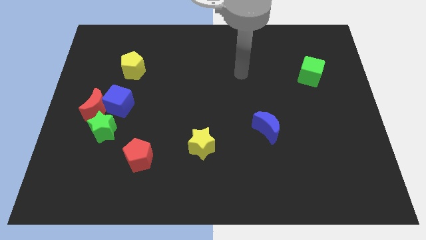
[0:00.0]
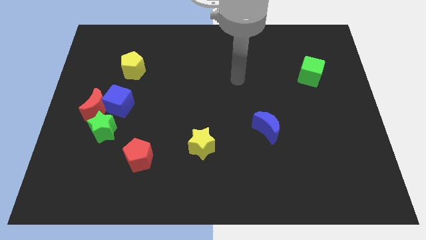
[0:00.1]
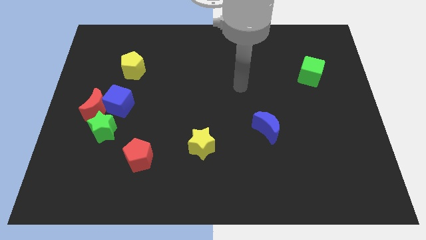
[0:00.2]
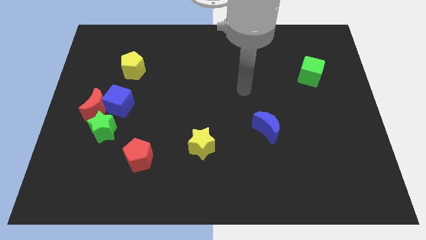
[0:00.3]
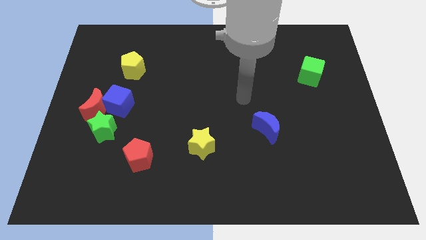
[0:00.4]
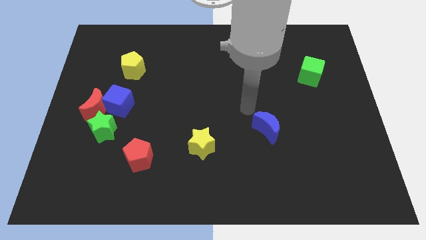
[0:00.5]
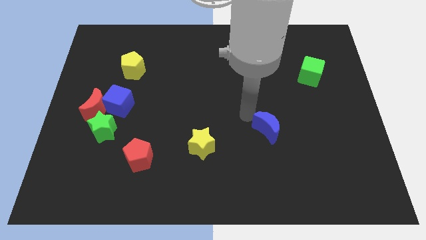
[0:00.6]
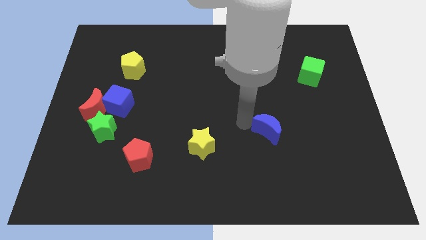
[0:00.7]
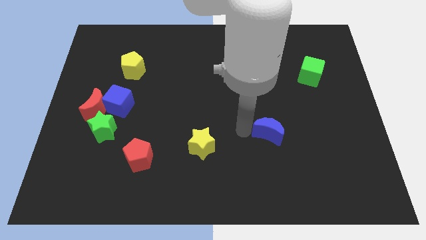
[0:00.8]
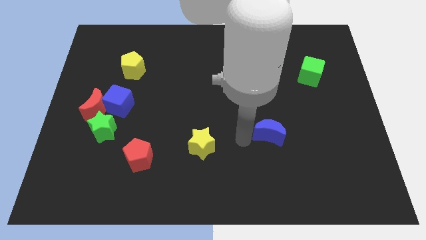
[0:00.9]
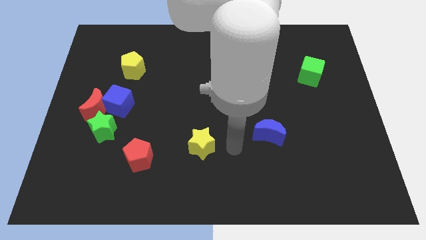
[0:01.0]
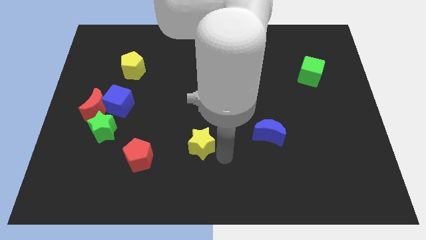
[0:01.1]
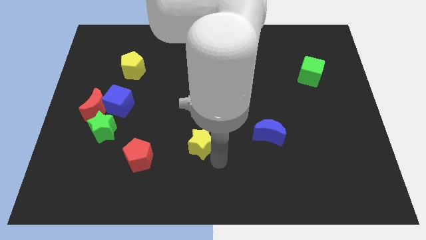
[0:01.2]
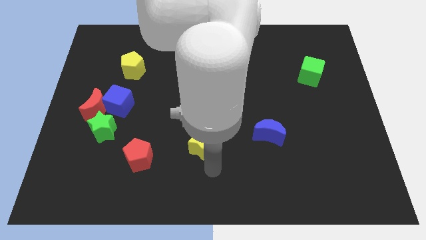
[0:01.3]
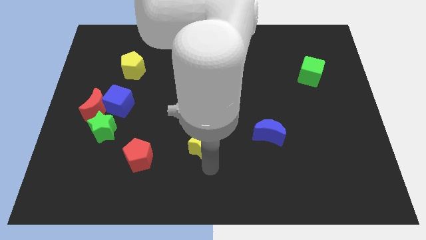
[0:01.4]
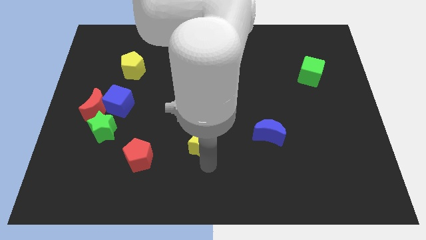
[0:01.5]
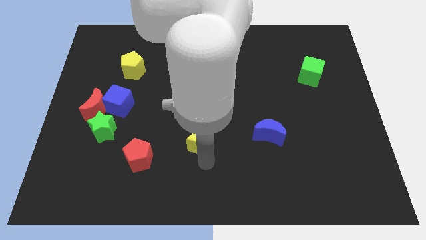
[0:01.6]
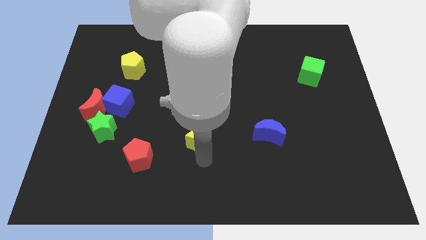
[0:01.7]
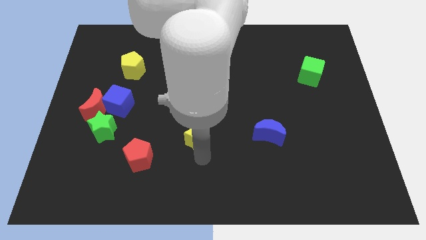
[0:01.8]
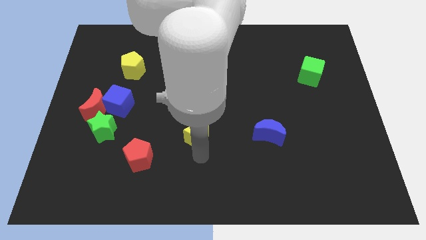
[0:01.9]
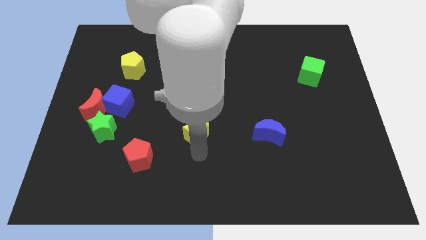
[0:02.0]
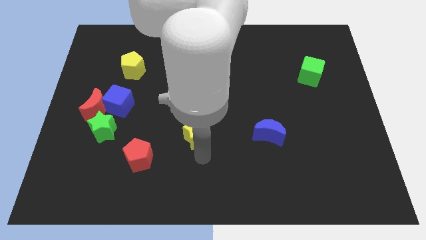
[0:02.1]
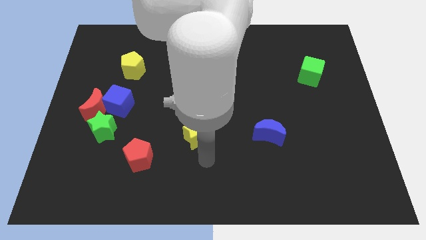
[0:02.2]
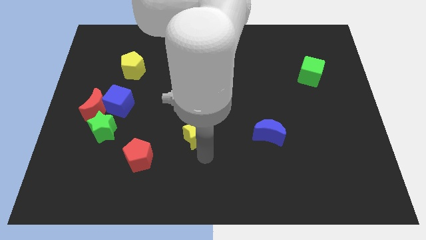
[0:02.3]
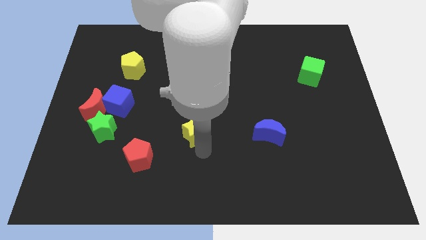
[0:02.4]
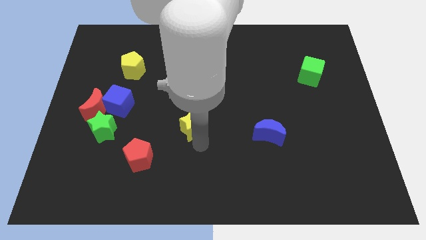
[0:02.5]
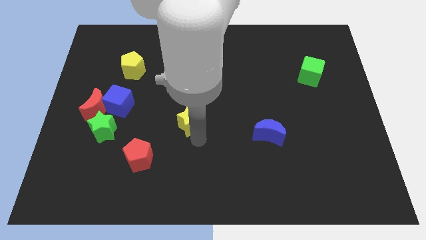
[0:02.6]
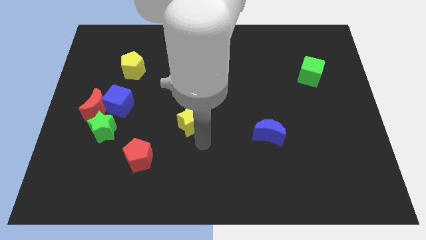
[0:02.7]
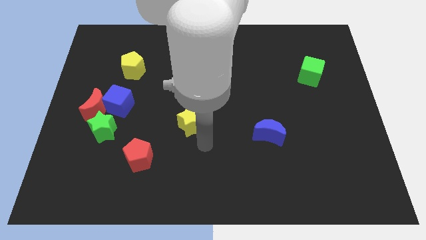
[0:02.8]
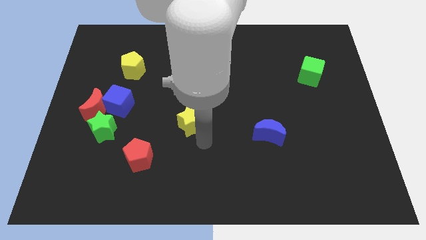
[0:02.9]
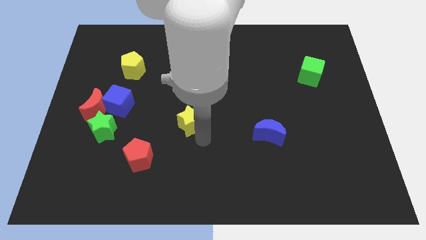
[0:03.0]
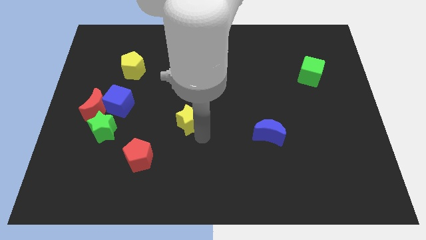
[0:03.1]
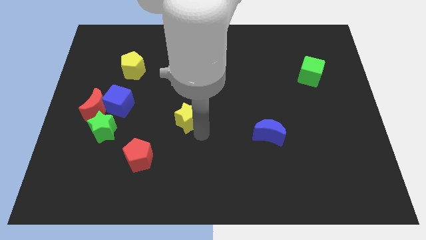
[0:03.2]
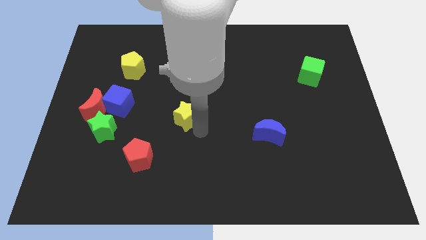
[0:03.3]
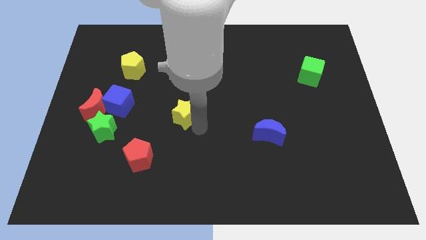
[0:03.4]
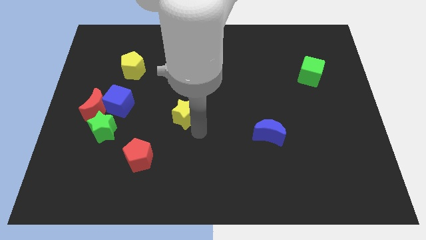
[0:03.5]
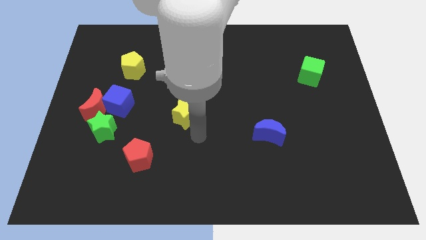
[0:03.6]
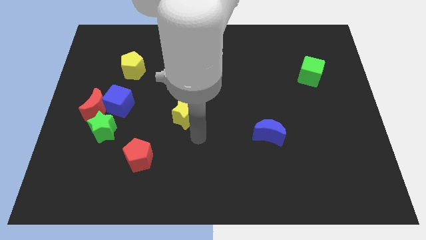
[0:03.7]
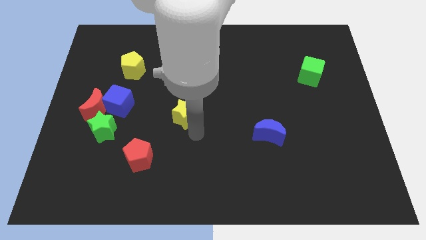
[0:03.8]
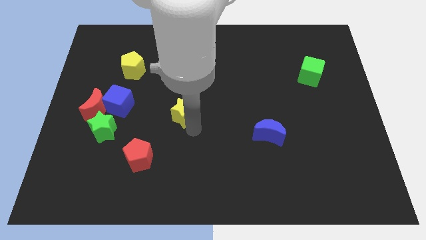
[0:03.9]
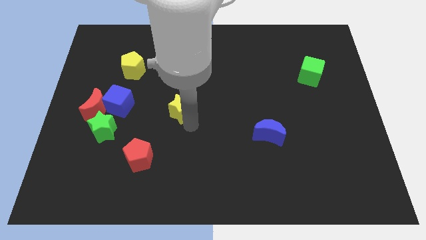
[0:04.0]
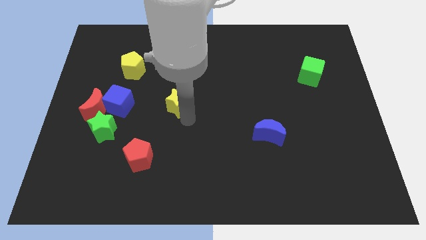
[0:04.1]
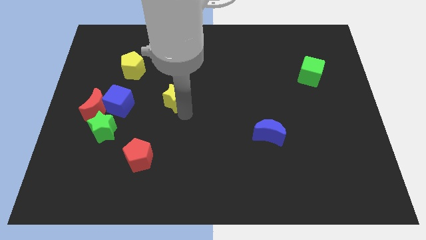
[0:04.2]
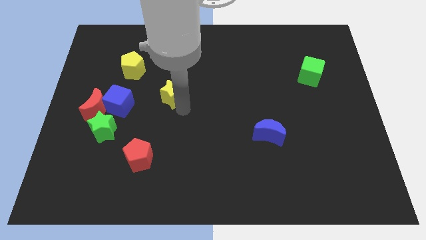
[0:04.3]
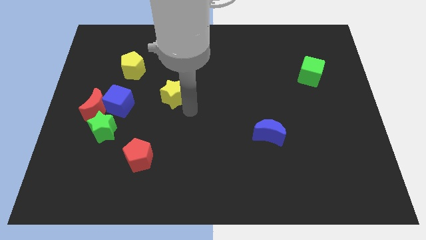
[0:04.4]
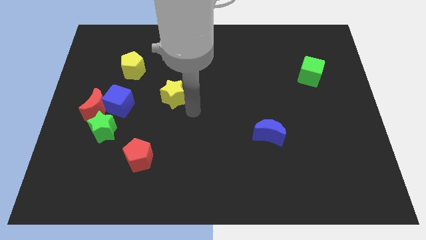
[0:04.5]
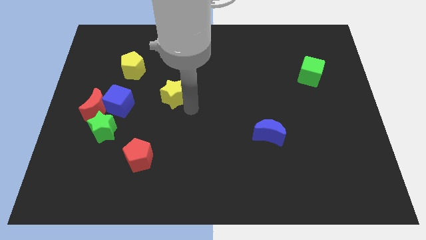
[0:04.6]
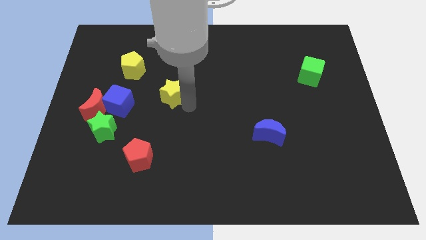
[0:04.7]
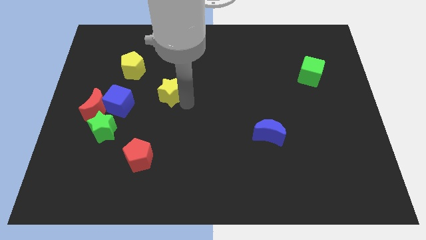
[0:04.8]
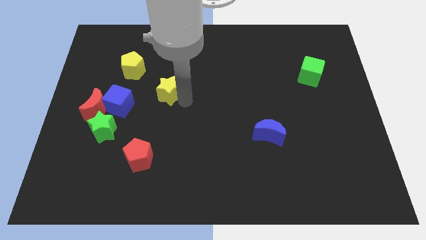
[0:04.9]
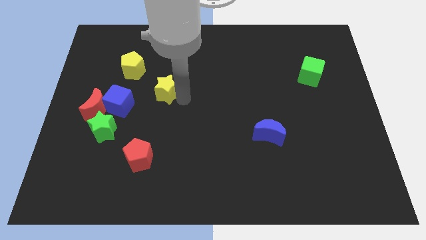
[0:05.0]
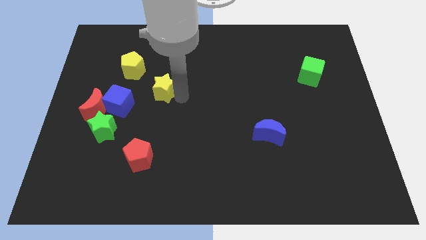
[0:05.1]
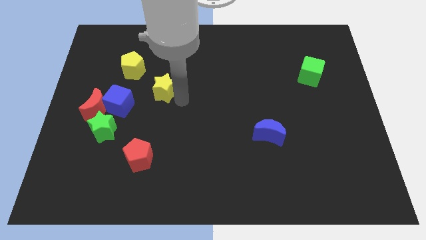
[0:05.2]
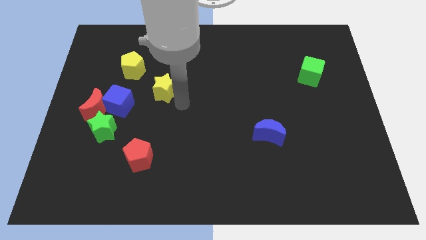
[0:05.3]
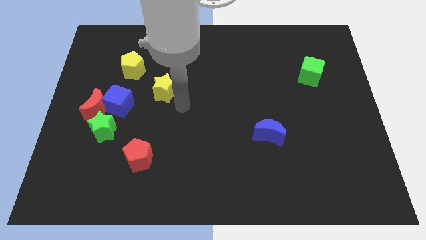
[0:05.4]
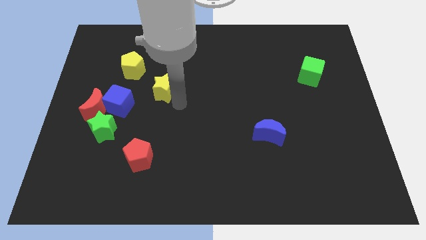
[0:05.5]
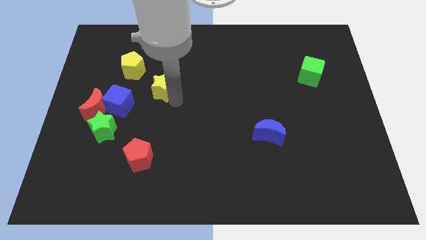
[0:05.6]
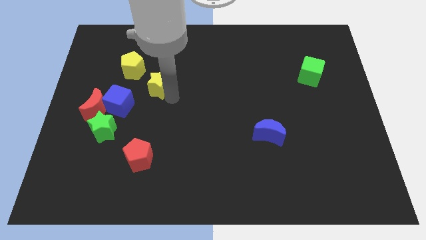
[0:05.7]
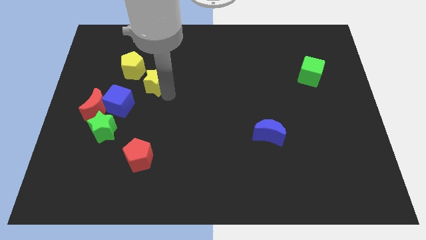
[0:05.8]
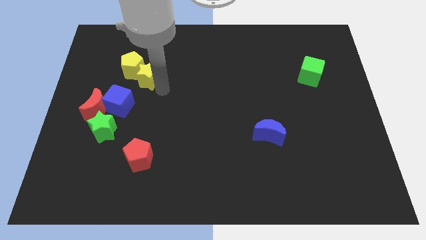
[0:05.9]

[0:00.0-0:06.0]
put the yellow star to the yellow pentagon

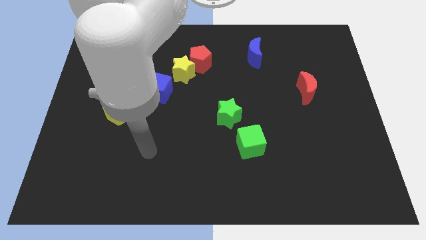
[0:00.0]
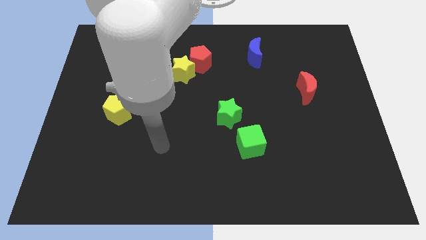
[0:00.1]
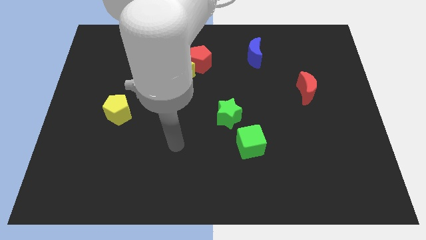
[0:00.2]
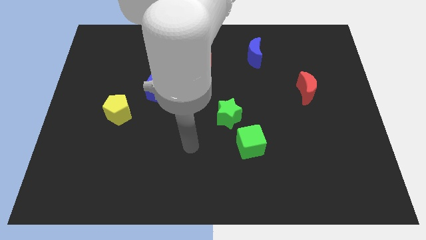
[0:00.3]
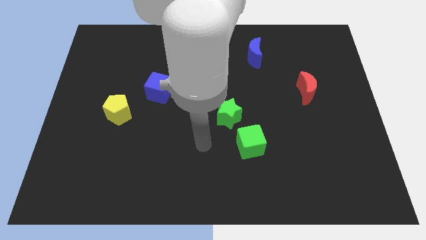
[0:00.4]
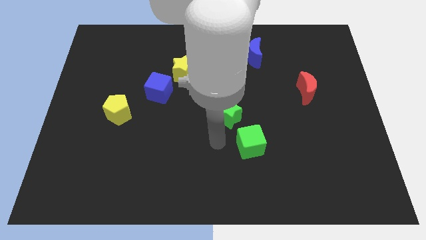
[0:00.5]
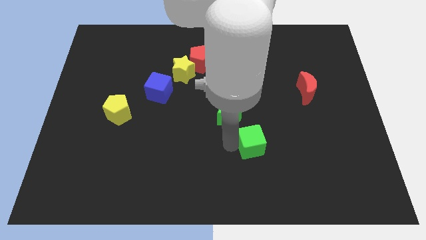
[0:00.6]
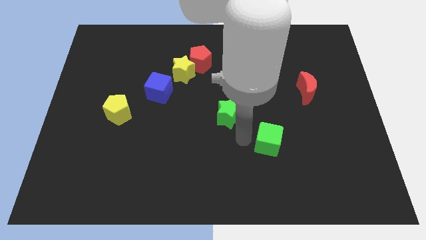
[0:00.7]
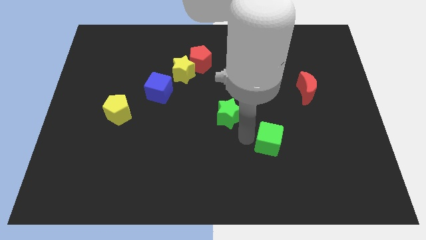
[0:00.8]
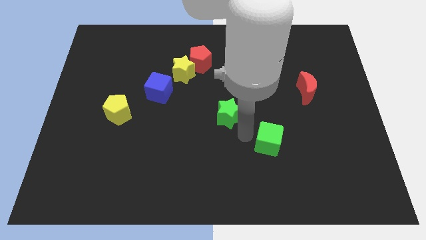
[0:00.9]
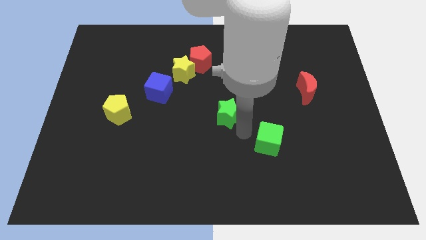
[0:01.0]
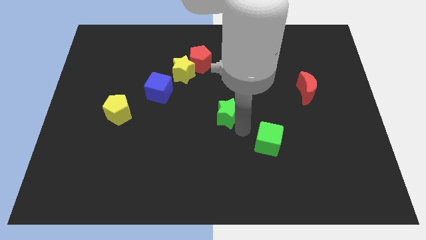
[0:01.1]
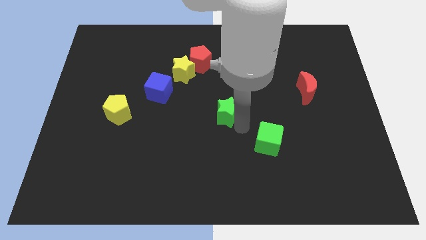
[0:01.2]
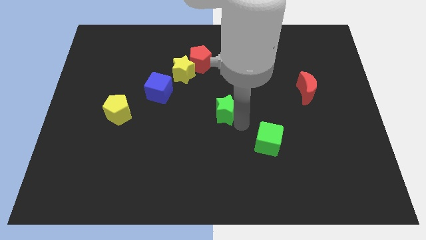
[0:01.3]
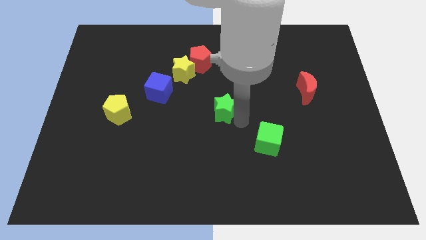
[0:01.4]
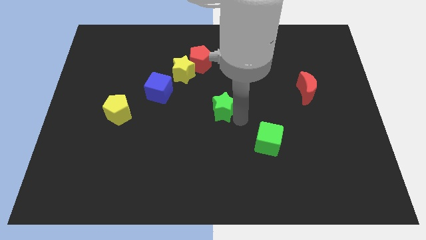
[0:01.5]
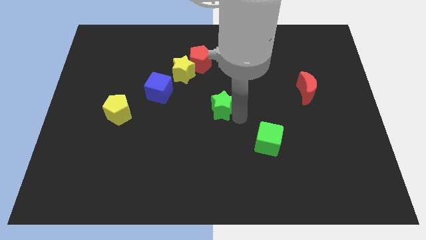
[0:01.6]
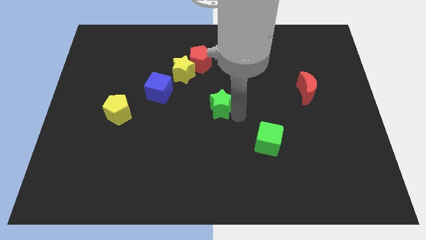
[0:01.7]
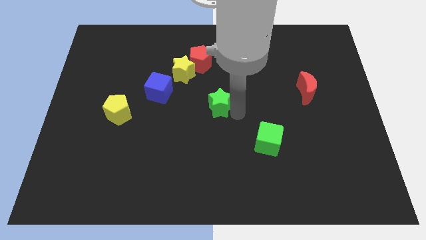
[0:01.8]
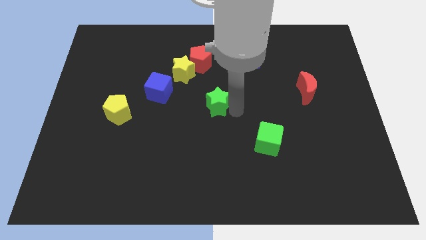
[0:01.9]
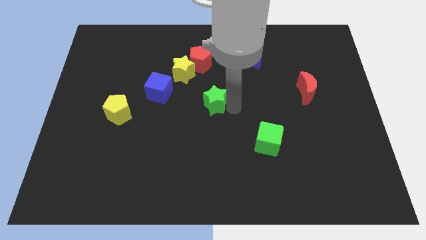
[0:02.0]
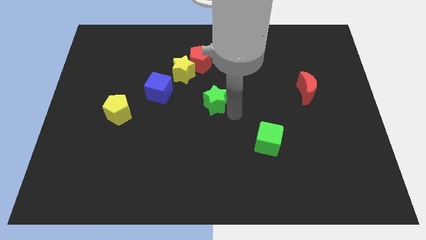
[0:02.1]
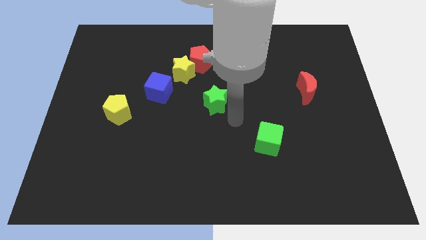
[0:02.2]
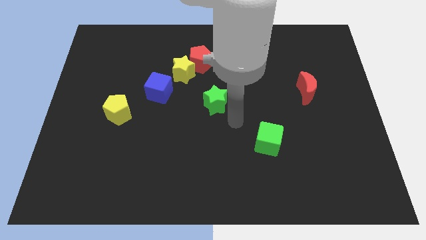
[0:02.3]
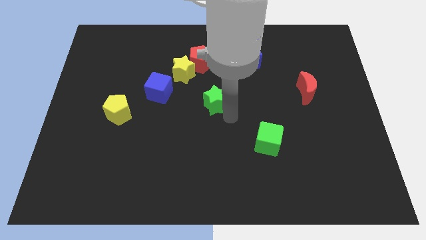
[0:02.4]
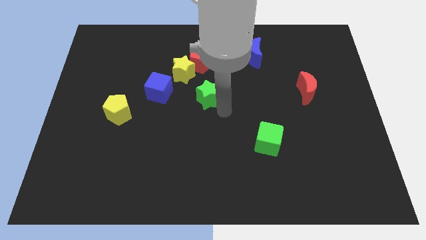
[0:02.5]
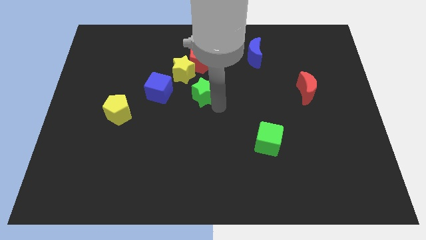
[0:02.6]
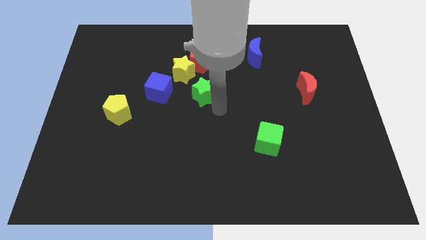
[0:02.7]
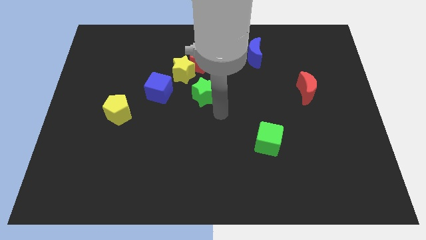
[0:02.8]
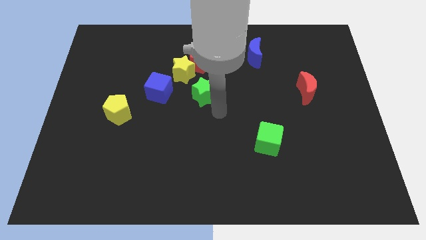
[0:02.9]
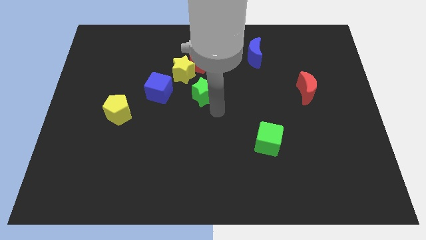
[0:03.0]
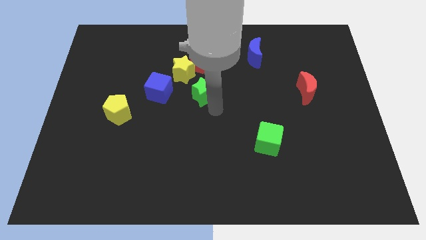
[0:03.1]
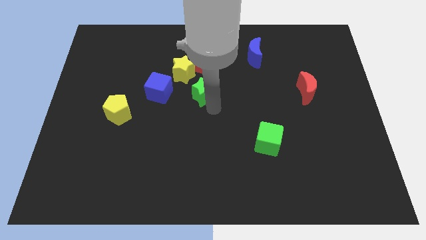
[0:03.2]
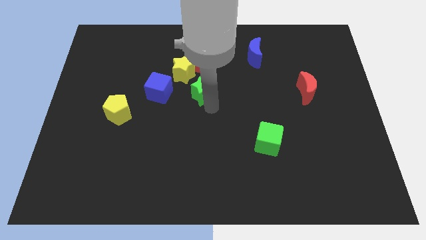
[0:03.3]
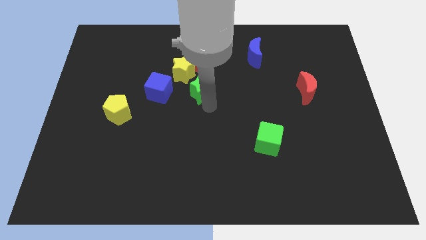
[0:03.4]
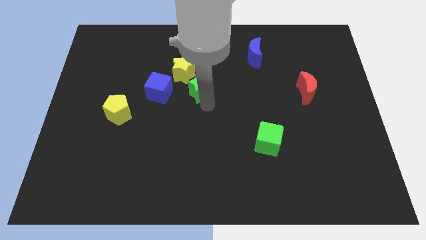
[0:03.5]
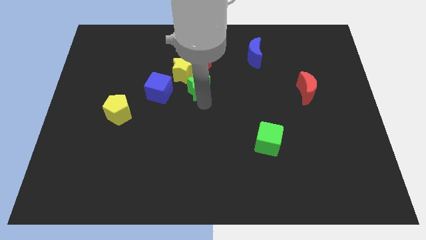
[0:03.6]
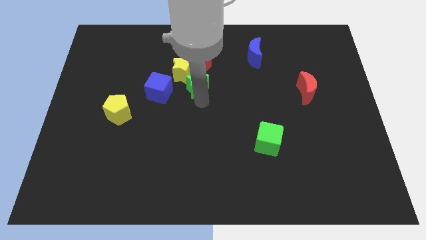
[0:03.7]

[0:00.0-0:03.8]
put the green star towards the yellow star
